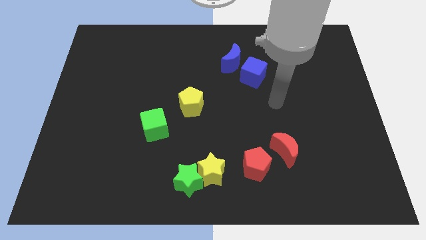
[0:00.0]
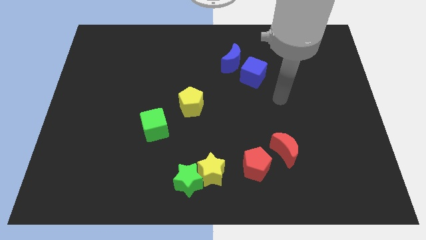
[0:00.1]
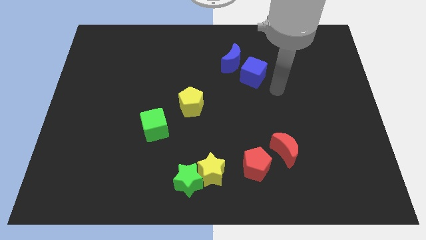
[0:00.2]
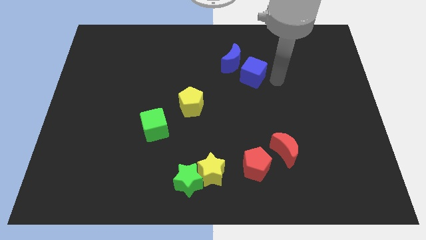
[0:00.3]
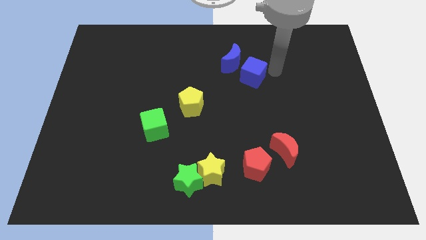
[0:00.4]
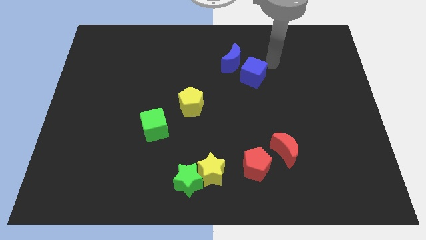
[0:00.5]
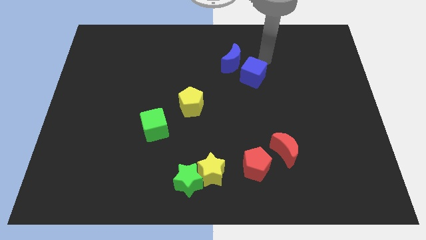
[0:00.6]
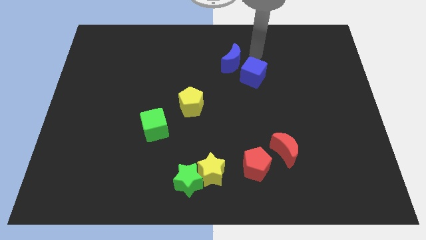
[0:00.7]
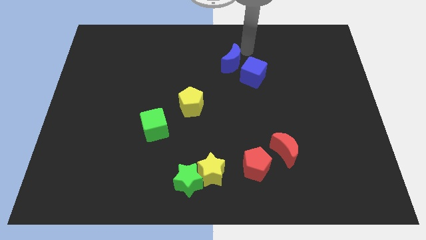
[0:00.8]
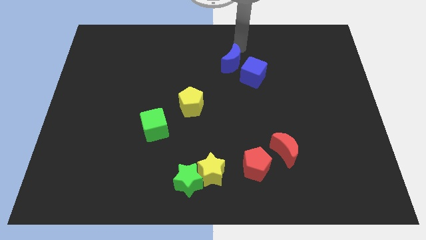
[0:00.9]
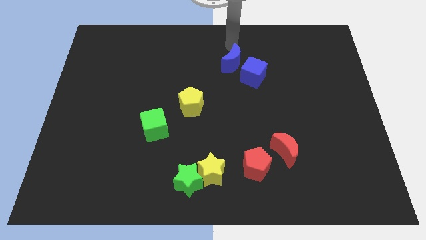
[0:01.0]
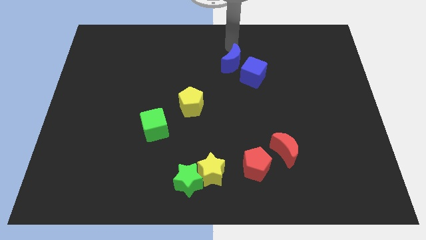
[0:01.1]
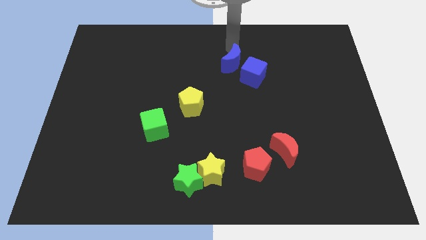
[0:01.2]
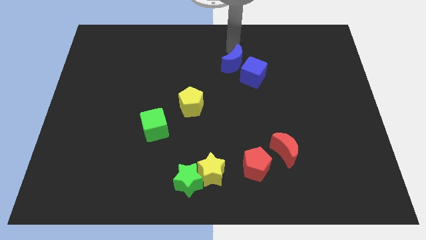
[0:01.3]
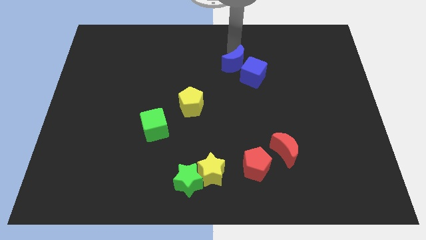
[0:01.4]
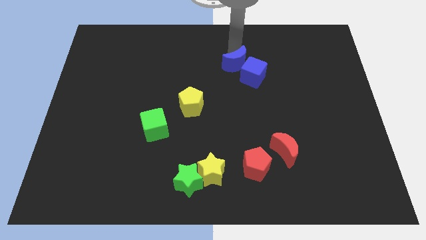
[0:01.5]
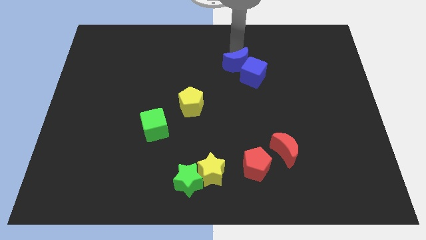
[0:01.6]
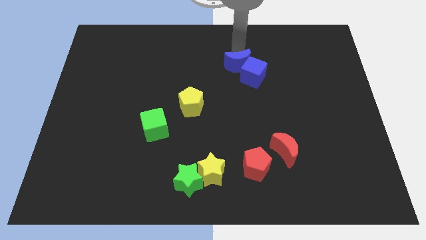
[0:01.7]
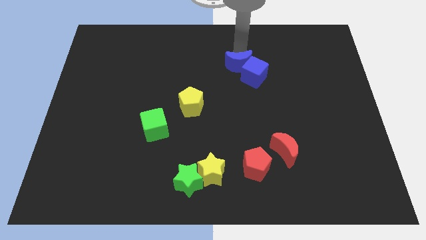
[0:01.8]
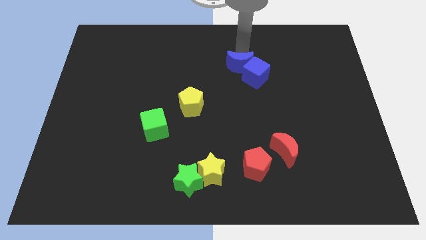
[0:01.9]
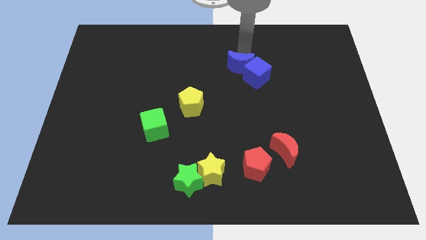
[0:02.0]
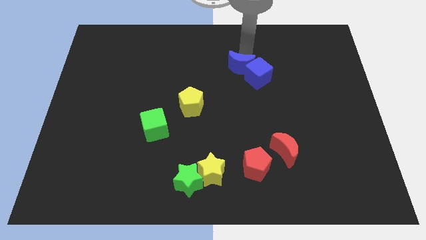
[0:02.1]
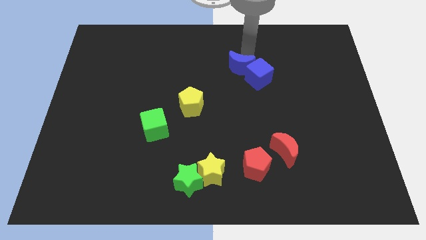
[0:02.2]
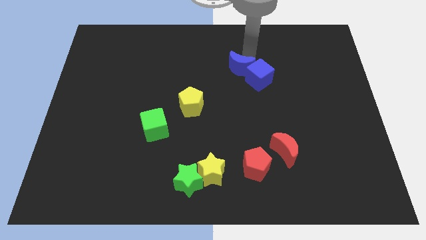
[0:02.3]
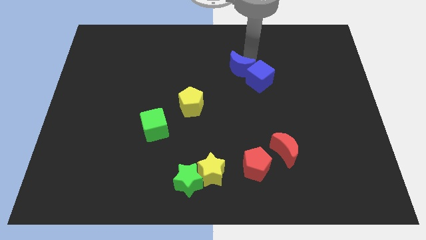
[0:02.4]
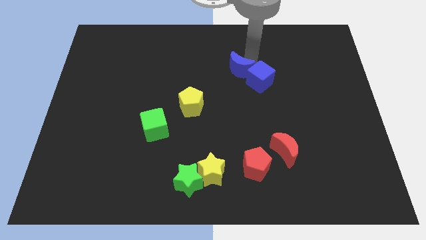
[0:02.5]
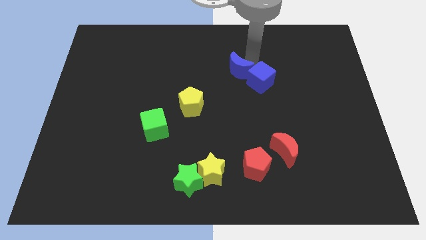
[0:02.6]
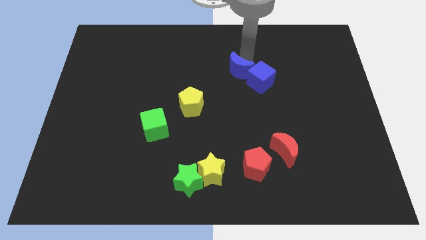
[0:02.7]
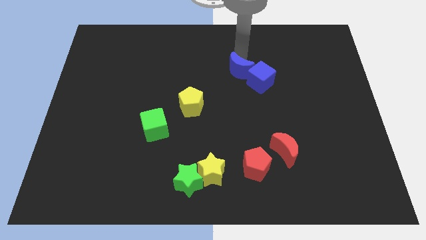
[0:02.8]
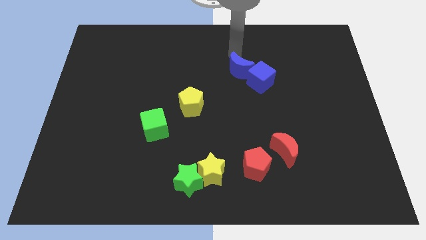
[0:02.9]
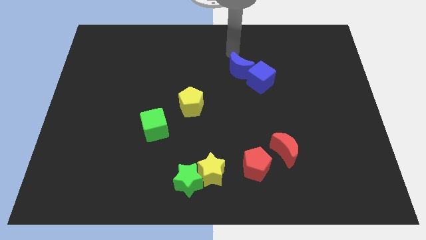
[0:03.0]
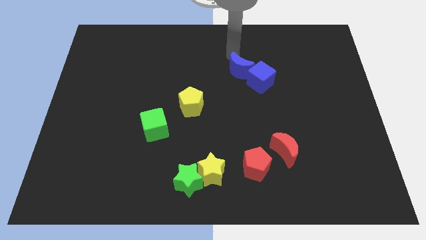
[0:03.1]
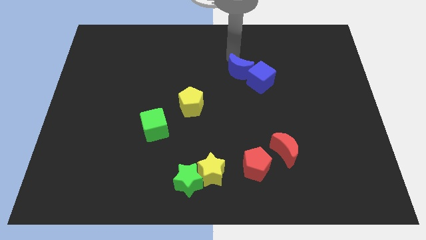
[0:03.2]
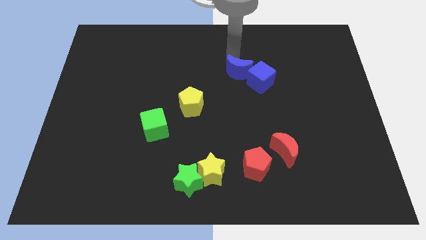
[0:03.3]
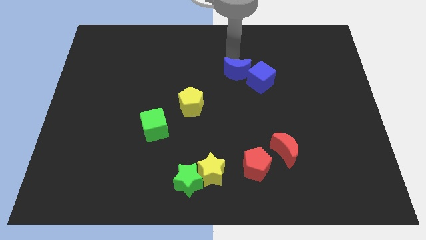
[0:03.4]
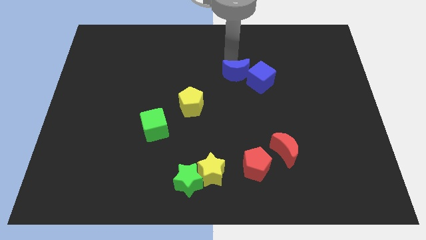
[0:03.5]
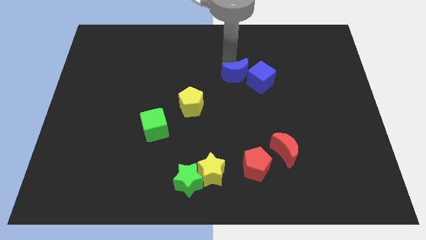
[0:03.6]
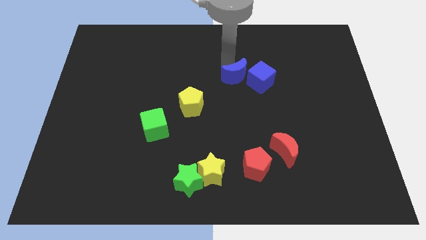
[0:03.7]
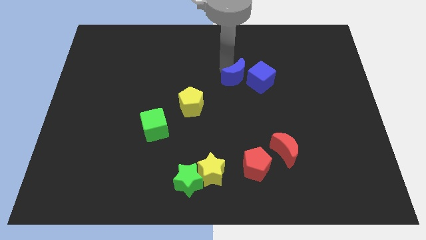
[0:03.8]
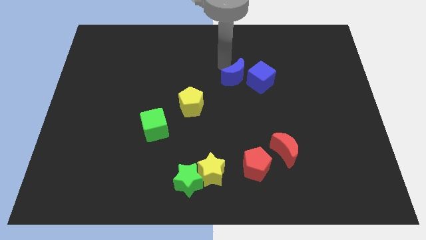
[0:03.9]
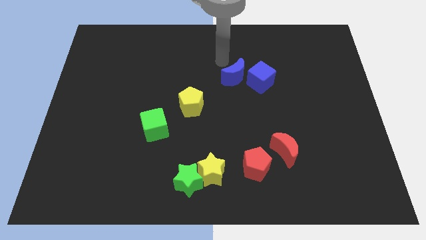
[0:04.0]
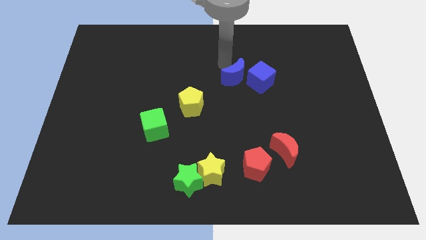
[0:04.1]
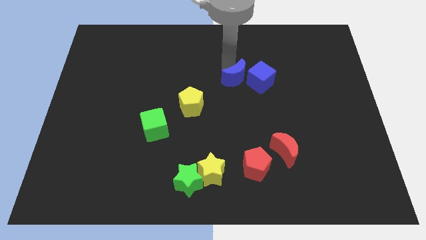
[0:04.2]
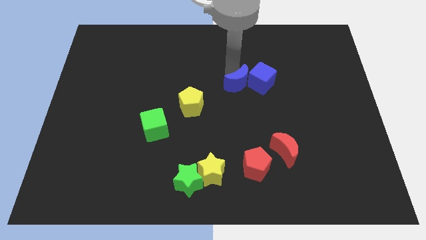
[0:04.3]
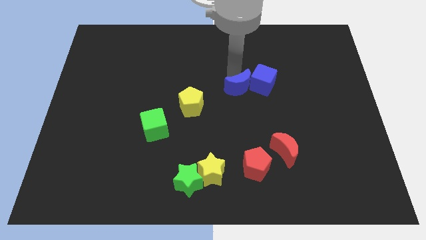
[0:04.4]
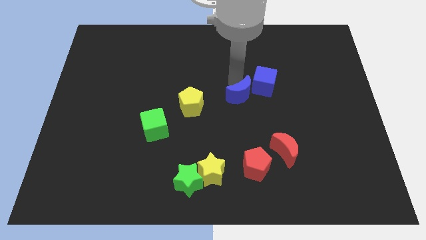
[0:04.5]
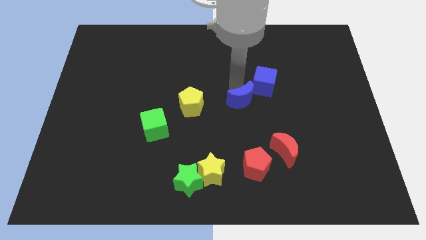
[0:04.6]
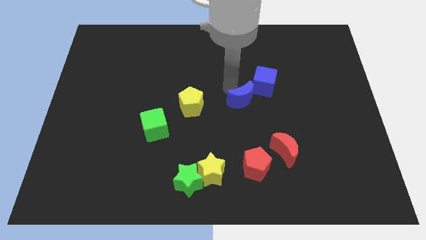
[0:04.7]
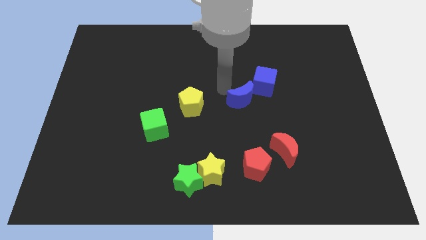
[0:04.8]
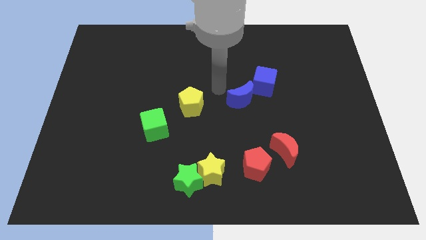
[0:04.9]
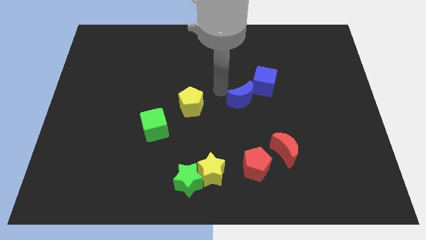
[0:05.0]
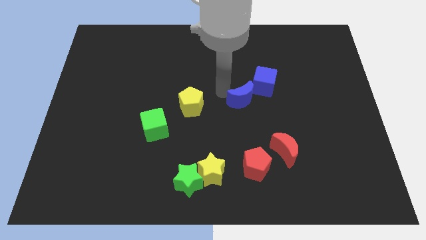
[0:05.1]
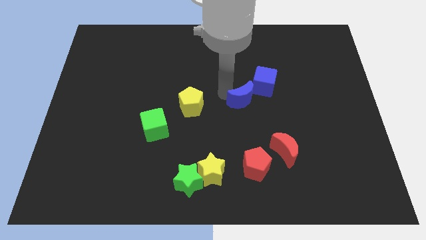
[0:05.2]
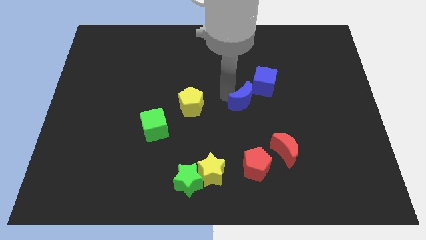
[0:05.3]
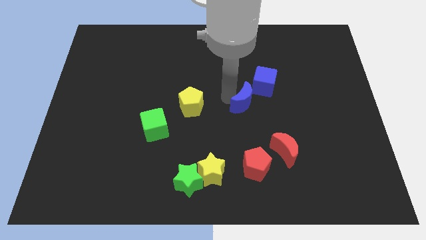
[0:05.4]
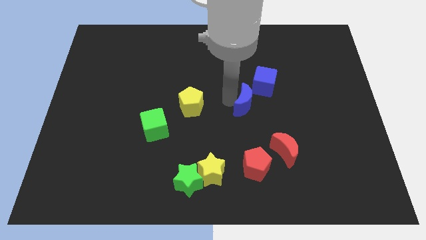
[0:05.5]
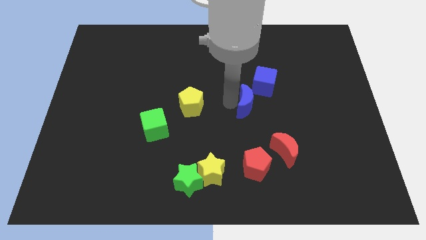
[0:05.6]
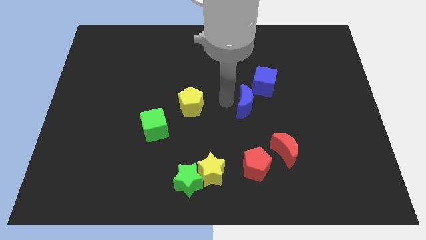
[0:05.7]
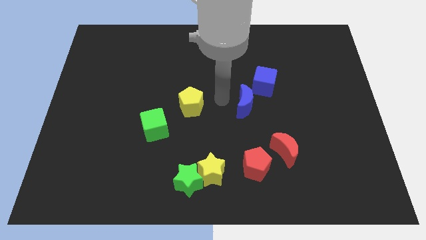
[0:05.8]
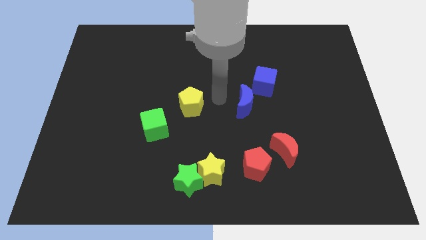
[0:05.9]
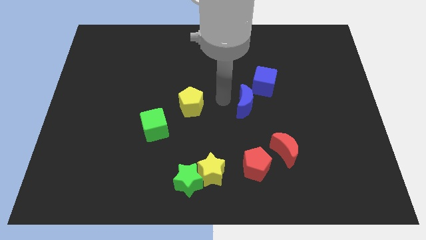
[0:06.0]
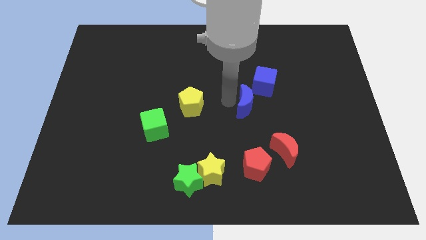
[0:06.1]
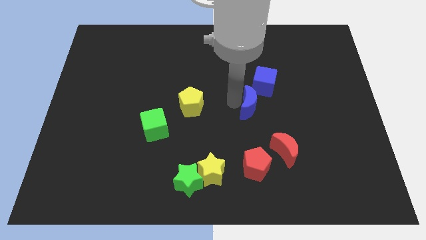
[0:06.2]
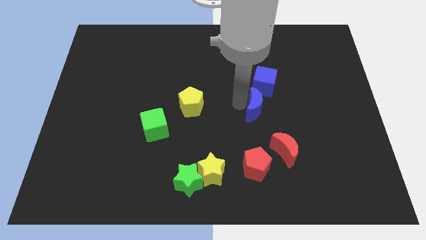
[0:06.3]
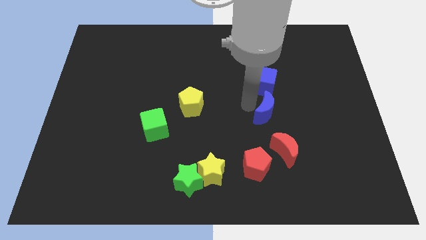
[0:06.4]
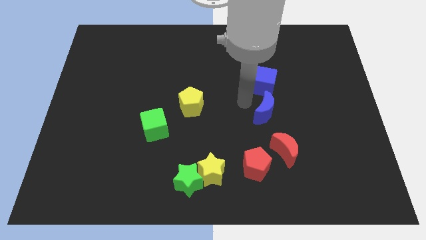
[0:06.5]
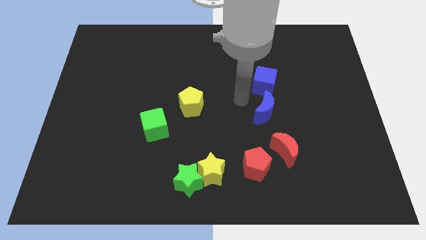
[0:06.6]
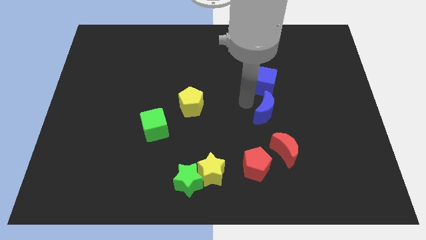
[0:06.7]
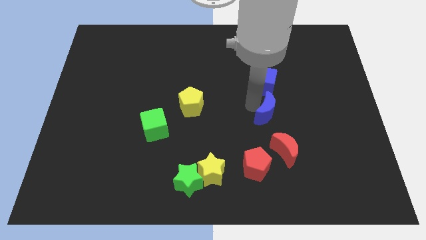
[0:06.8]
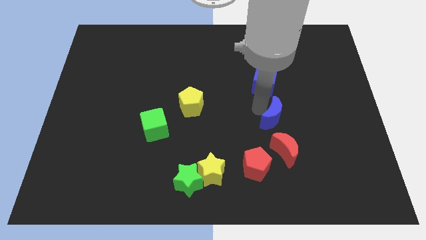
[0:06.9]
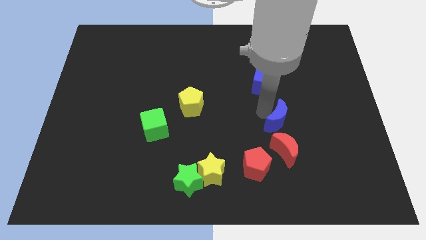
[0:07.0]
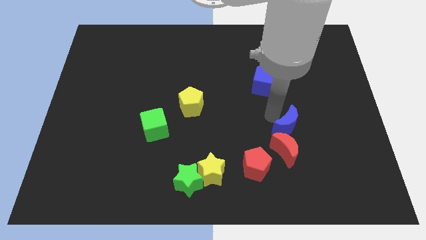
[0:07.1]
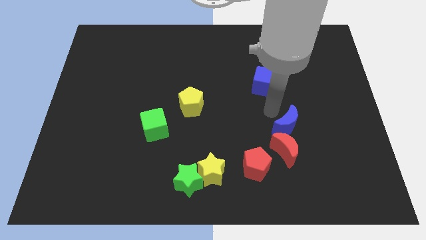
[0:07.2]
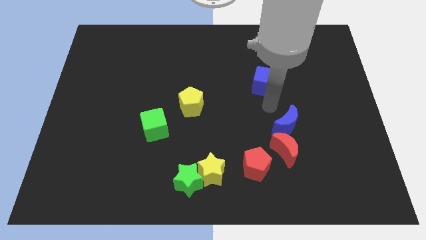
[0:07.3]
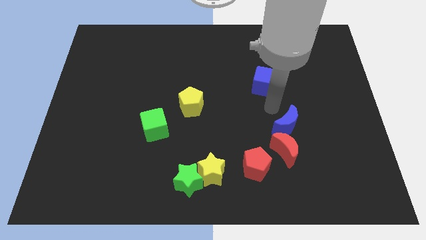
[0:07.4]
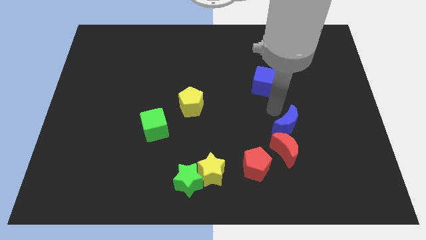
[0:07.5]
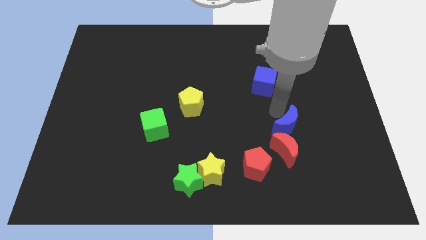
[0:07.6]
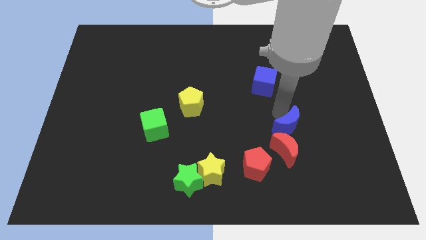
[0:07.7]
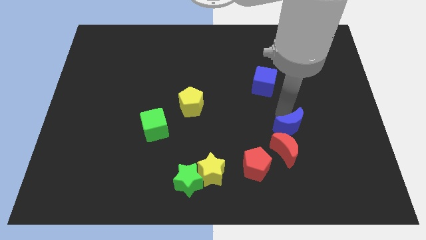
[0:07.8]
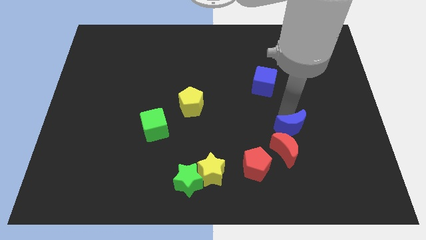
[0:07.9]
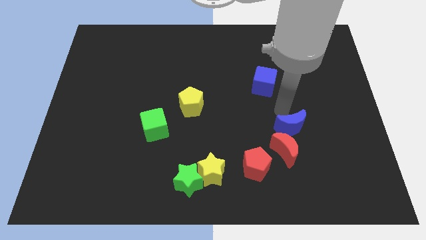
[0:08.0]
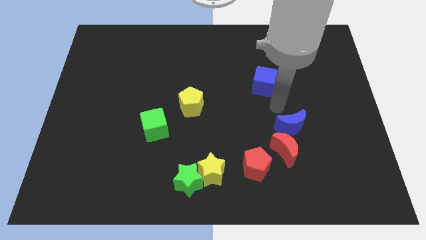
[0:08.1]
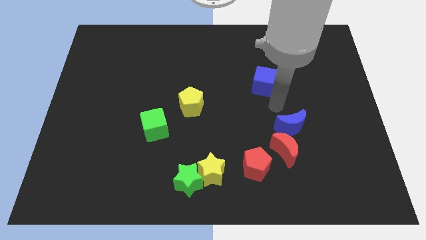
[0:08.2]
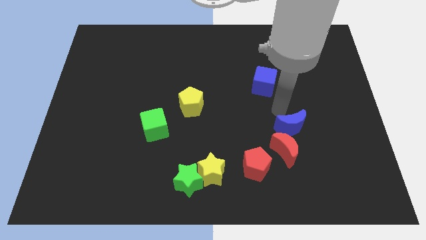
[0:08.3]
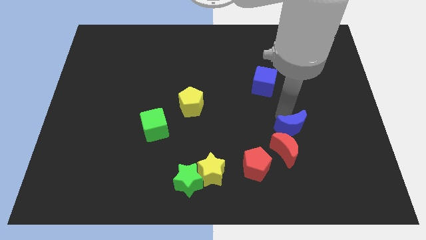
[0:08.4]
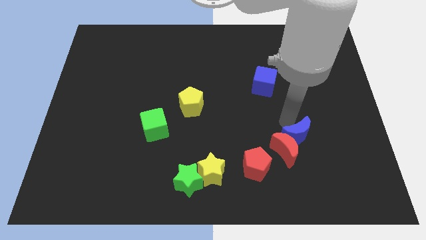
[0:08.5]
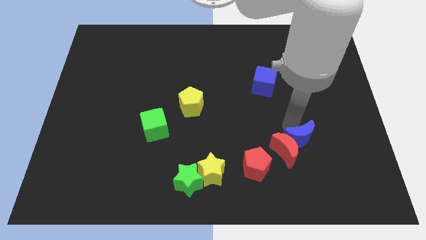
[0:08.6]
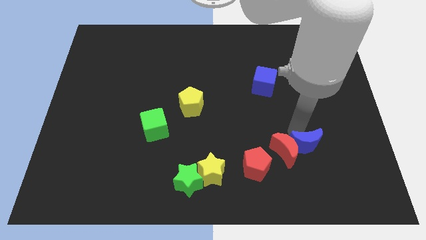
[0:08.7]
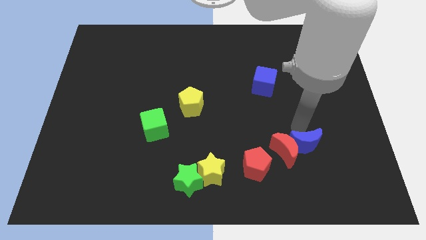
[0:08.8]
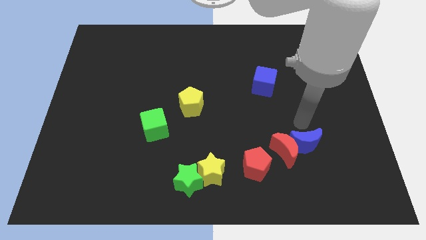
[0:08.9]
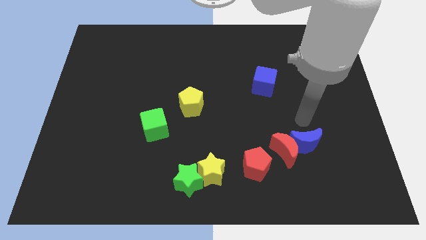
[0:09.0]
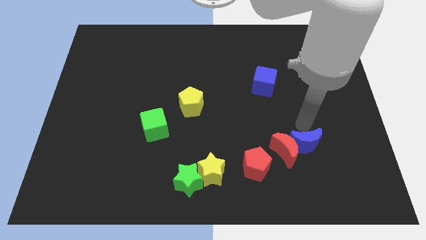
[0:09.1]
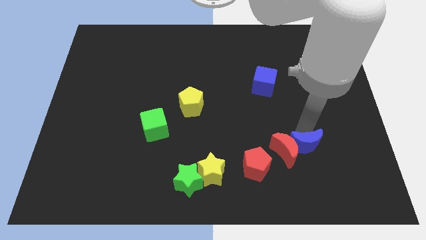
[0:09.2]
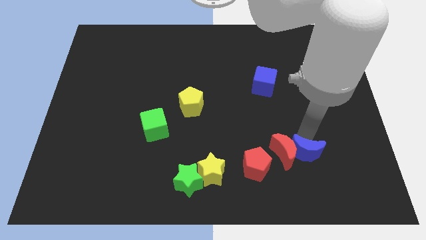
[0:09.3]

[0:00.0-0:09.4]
put the blue moon to the right of the red pentagon
